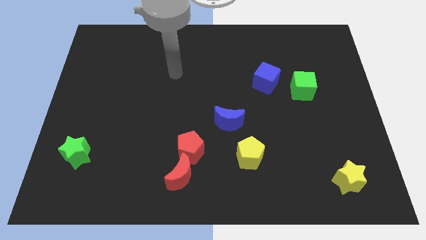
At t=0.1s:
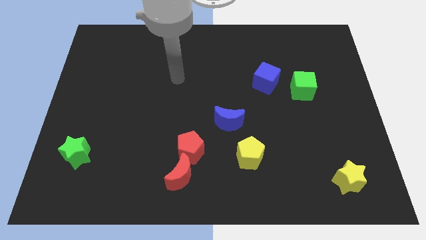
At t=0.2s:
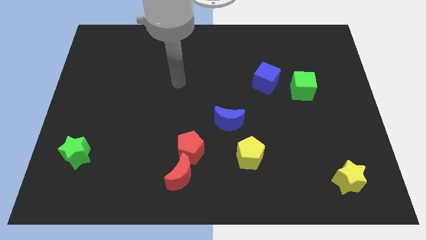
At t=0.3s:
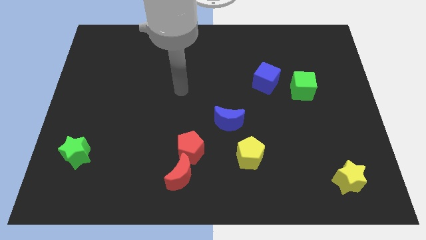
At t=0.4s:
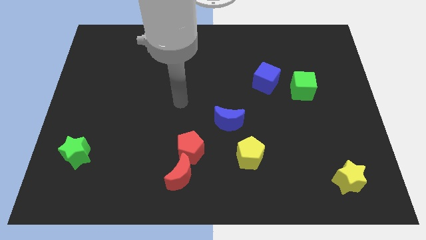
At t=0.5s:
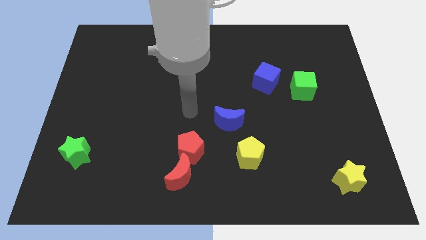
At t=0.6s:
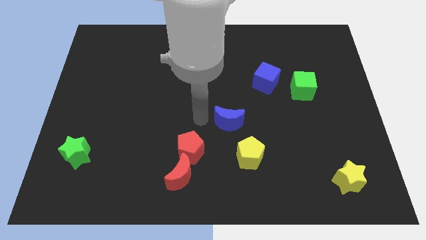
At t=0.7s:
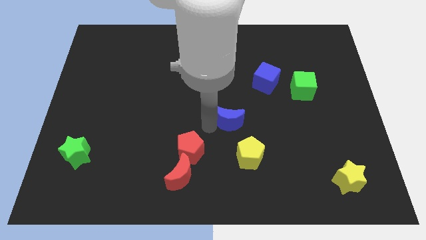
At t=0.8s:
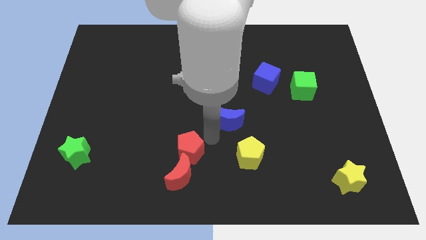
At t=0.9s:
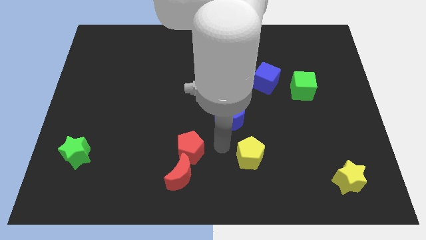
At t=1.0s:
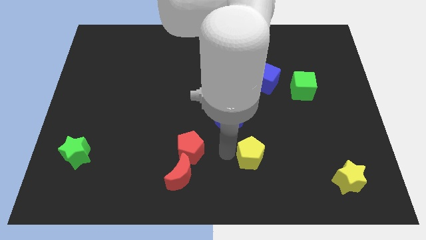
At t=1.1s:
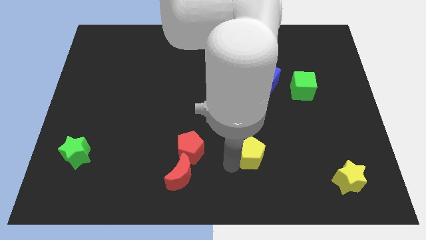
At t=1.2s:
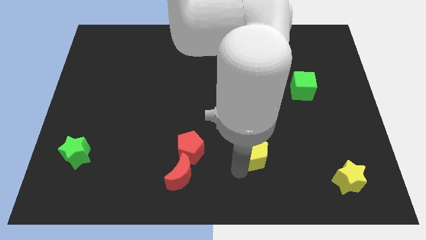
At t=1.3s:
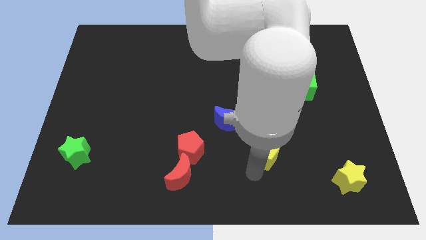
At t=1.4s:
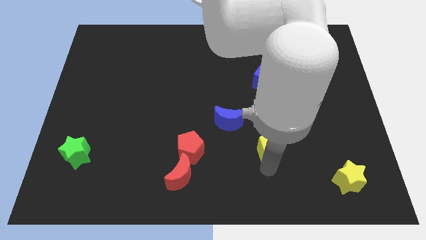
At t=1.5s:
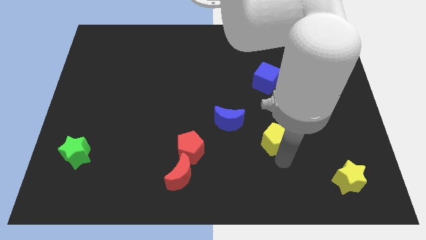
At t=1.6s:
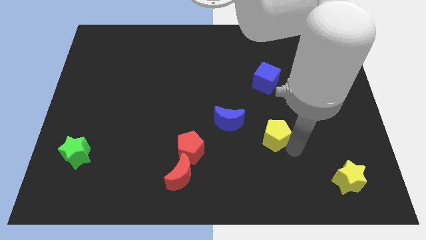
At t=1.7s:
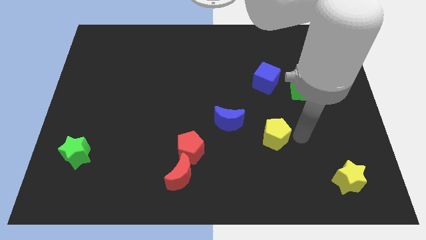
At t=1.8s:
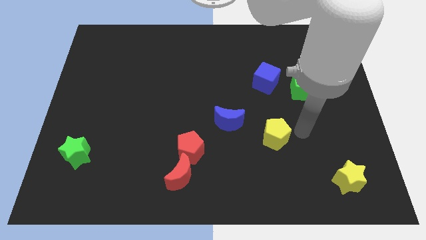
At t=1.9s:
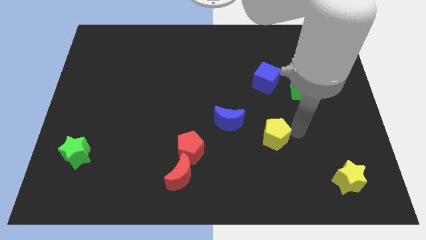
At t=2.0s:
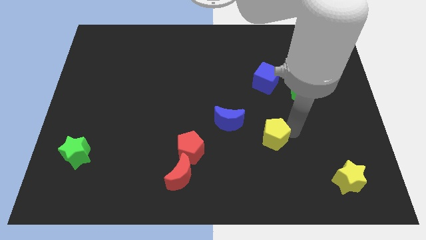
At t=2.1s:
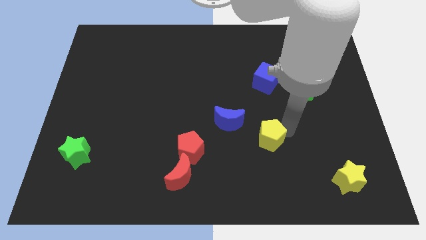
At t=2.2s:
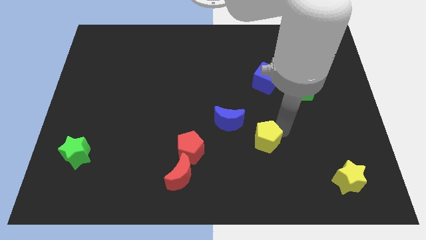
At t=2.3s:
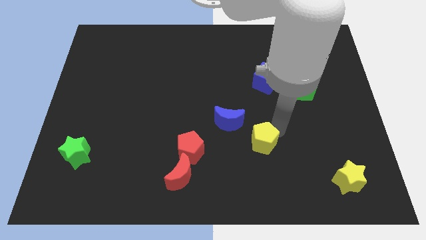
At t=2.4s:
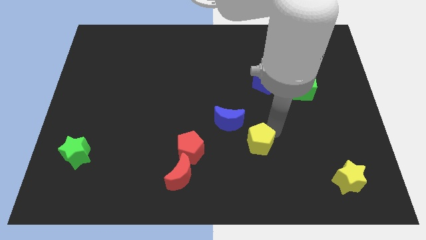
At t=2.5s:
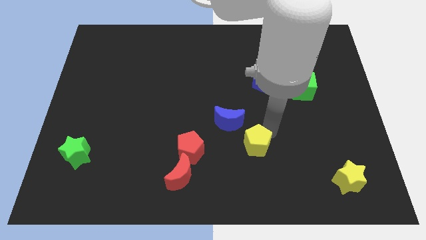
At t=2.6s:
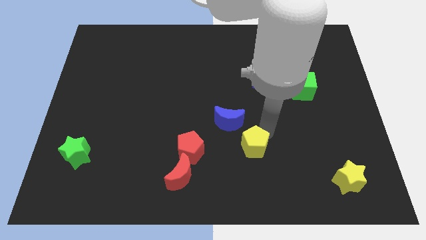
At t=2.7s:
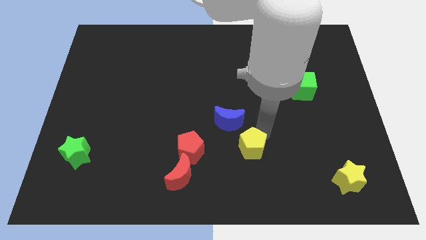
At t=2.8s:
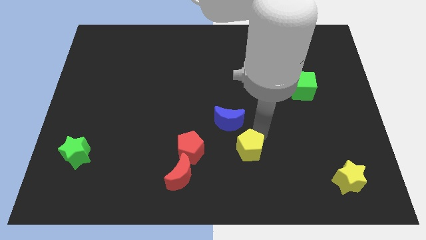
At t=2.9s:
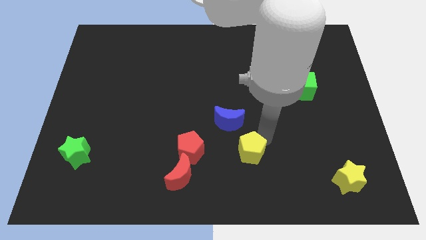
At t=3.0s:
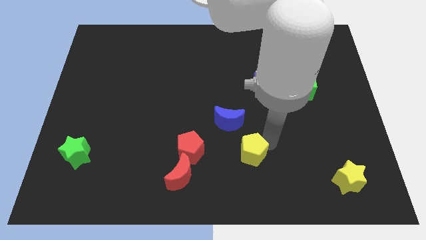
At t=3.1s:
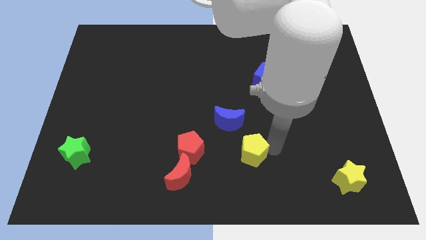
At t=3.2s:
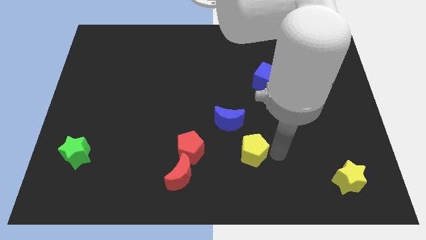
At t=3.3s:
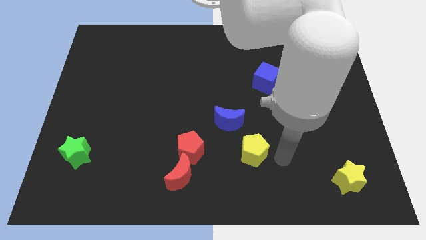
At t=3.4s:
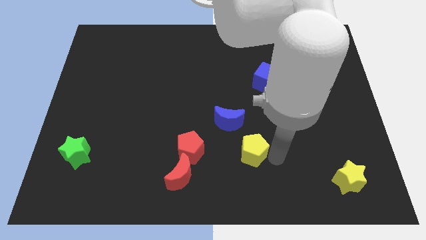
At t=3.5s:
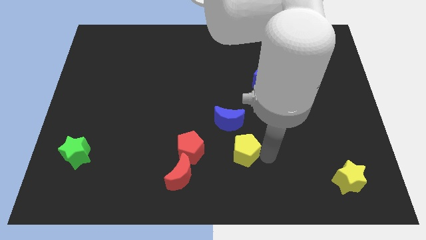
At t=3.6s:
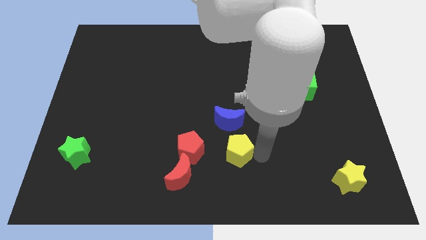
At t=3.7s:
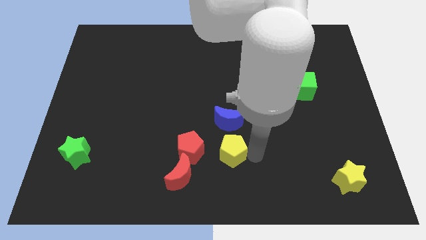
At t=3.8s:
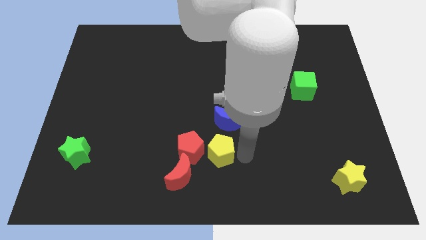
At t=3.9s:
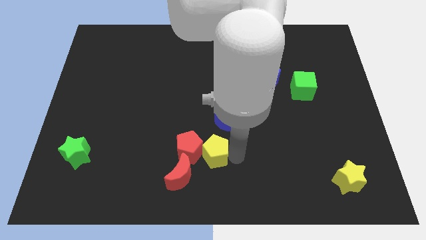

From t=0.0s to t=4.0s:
slightly push the yellow pentagon left

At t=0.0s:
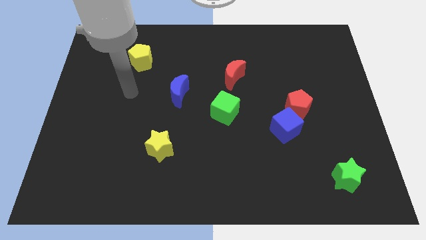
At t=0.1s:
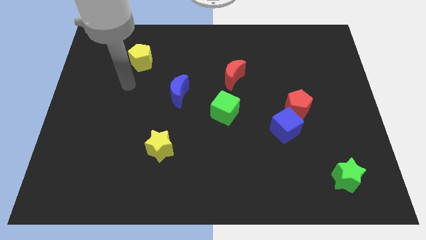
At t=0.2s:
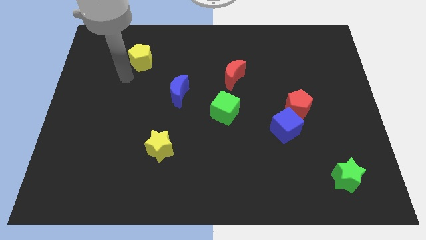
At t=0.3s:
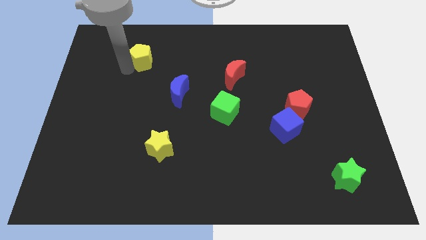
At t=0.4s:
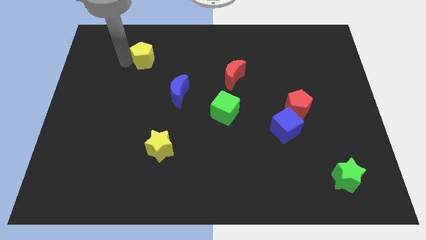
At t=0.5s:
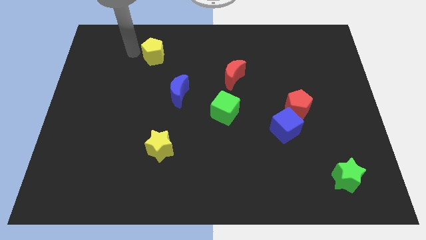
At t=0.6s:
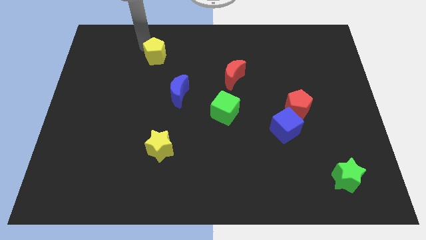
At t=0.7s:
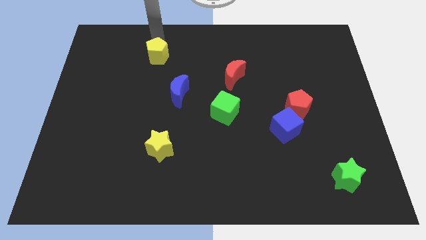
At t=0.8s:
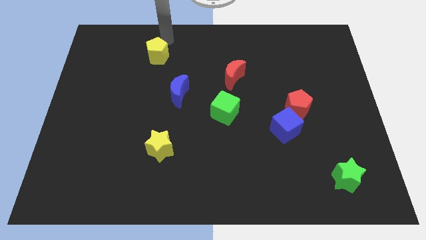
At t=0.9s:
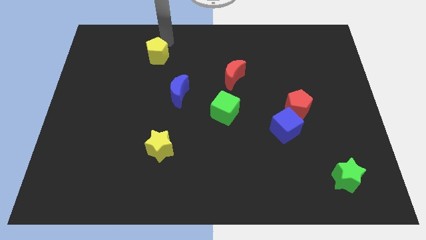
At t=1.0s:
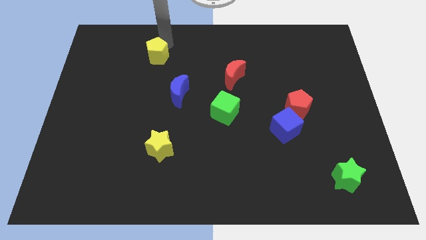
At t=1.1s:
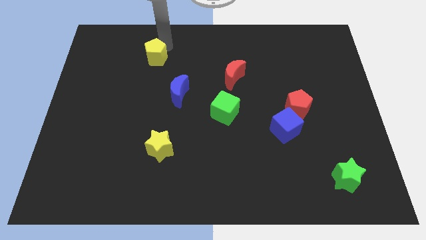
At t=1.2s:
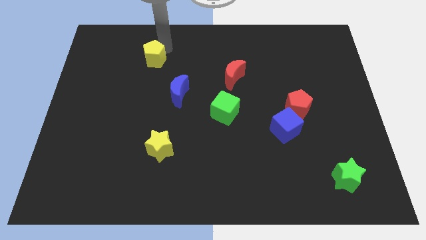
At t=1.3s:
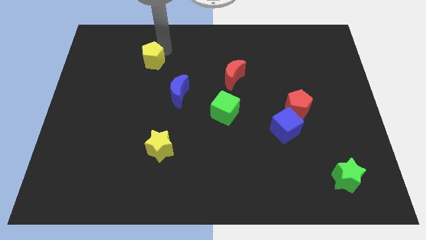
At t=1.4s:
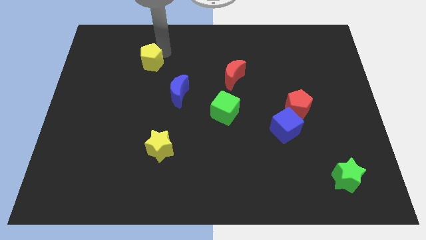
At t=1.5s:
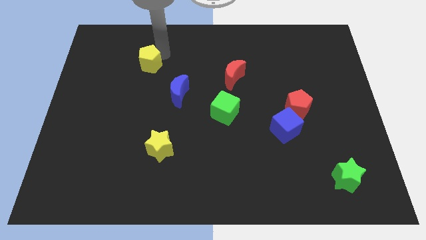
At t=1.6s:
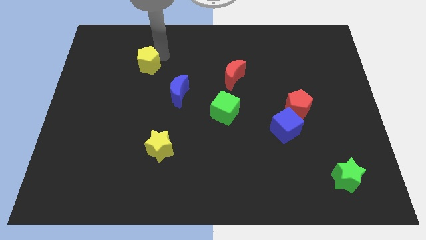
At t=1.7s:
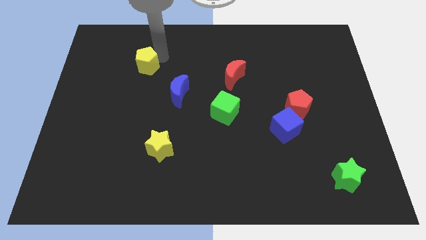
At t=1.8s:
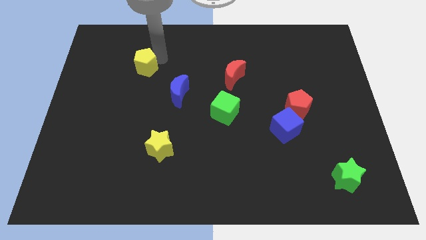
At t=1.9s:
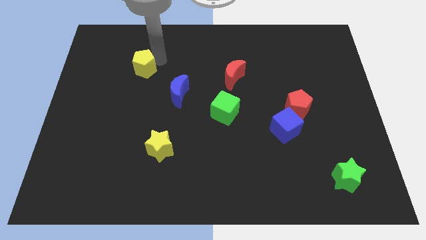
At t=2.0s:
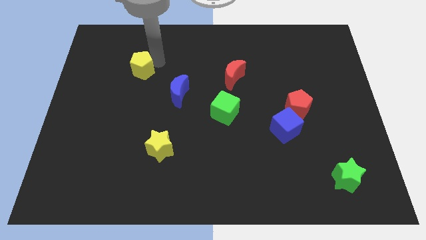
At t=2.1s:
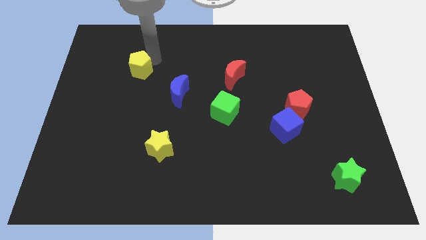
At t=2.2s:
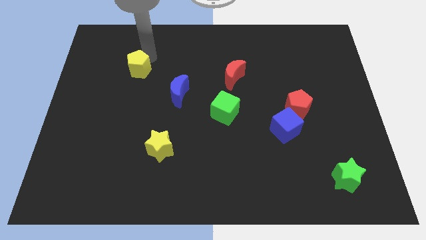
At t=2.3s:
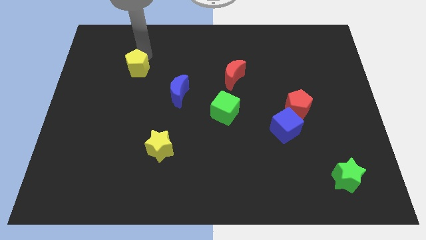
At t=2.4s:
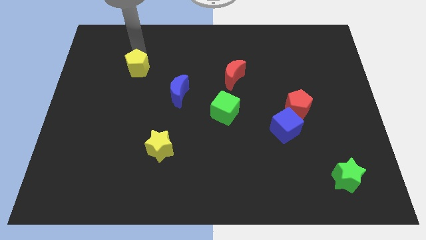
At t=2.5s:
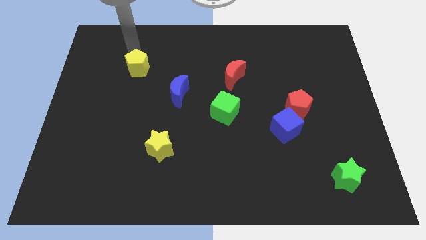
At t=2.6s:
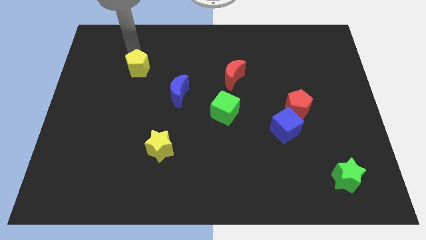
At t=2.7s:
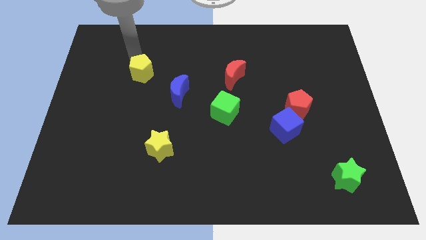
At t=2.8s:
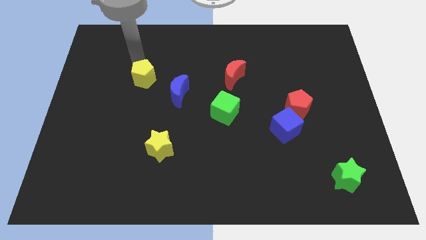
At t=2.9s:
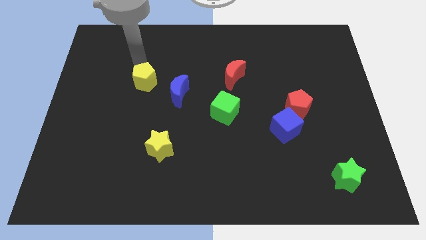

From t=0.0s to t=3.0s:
slightly move the yellow pentagon down

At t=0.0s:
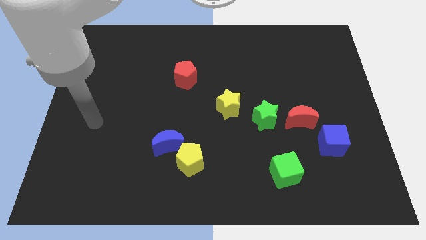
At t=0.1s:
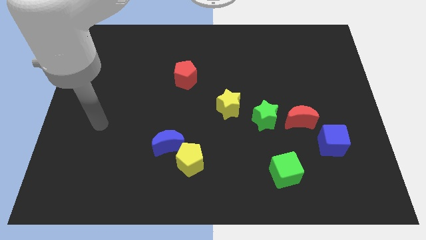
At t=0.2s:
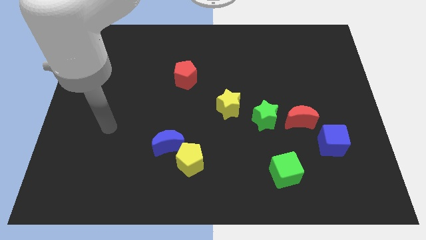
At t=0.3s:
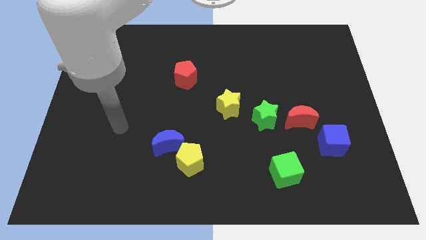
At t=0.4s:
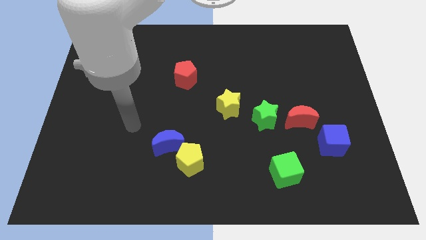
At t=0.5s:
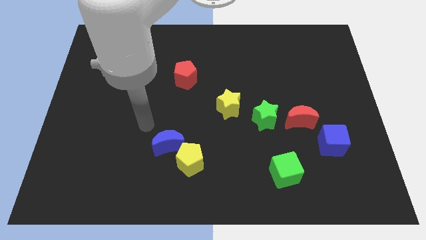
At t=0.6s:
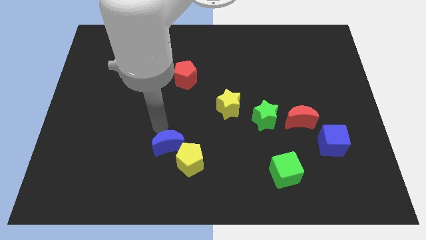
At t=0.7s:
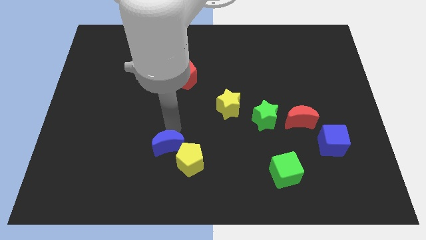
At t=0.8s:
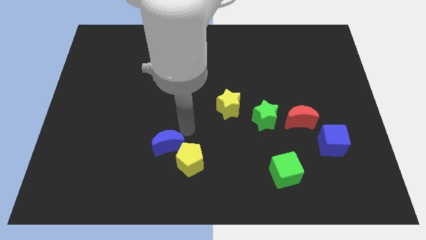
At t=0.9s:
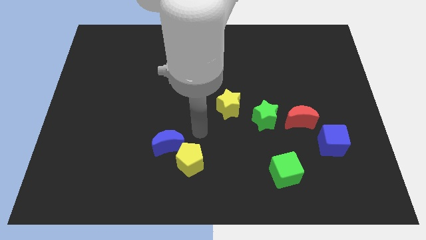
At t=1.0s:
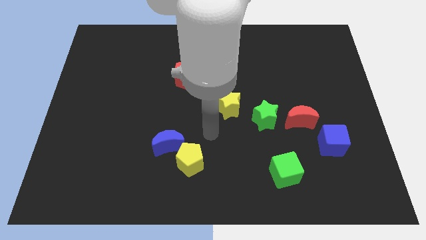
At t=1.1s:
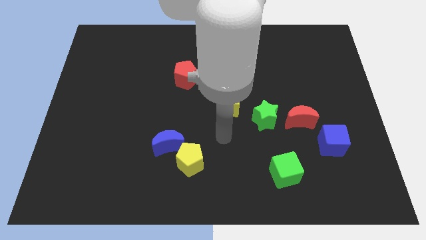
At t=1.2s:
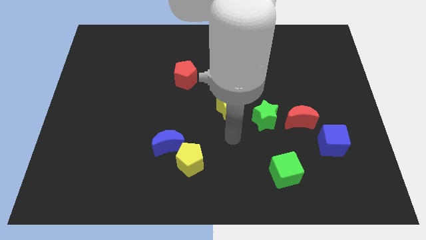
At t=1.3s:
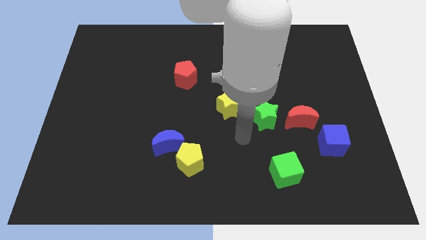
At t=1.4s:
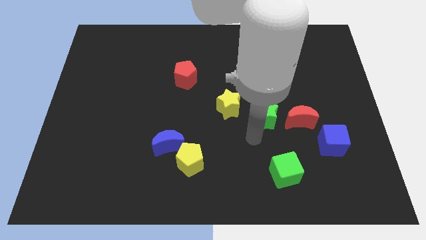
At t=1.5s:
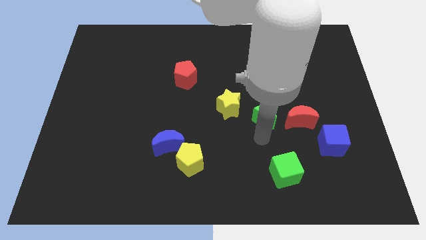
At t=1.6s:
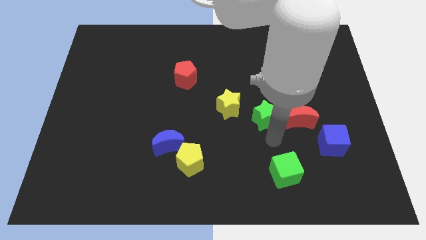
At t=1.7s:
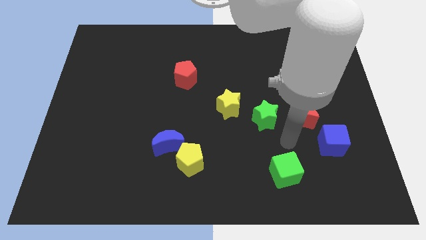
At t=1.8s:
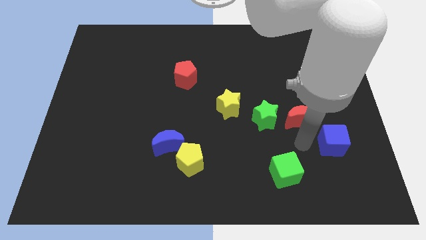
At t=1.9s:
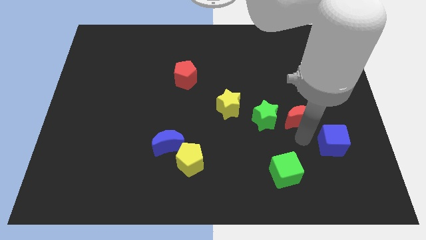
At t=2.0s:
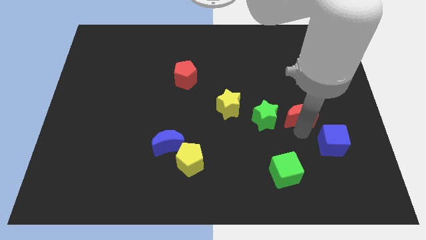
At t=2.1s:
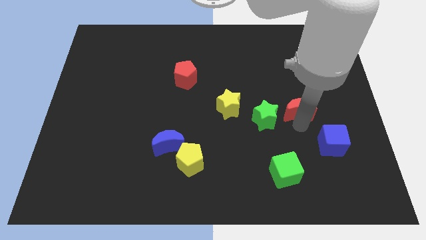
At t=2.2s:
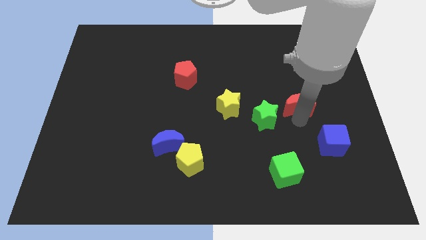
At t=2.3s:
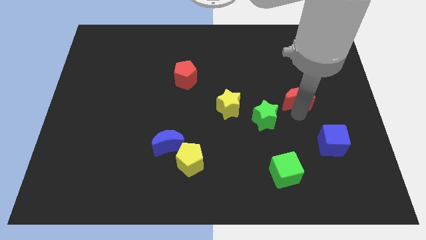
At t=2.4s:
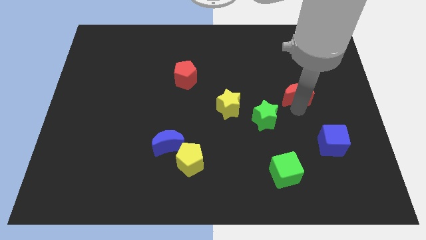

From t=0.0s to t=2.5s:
move the red moon up somewhat
